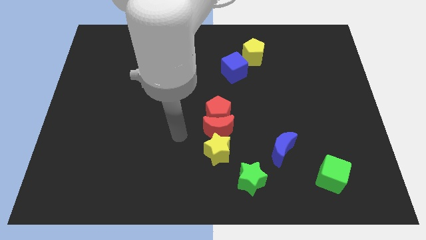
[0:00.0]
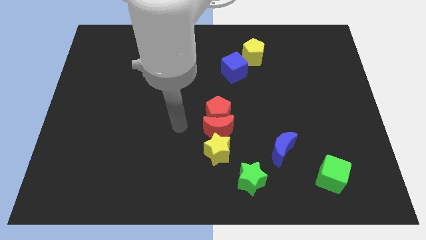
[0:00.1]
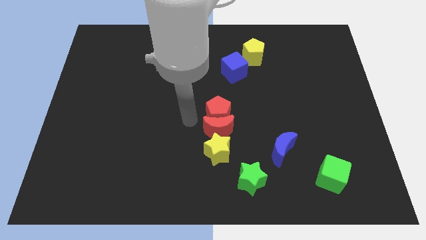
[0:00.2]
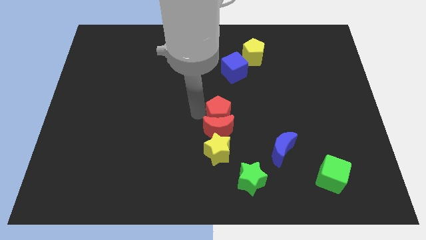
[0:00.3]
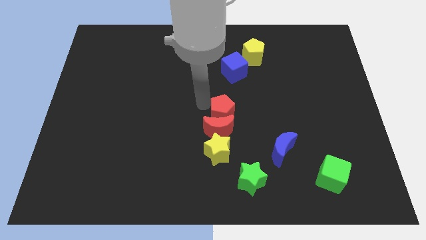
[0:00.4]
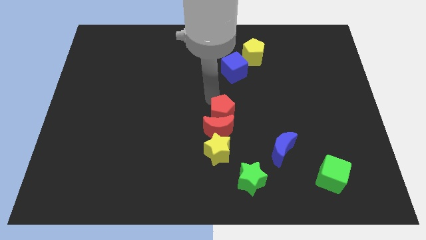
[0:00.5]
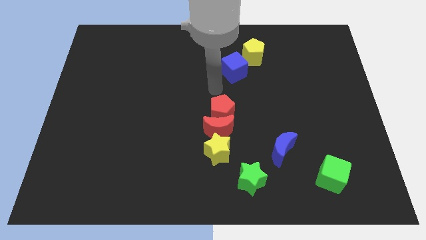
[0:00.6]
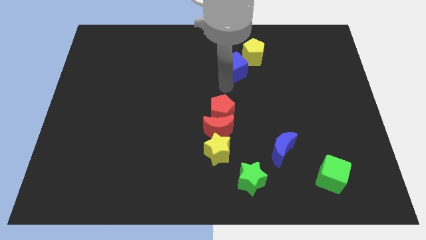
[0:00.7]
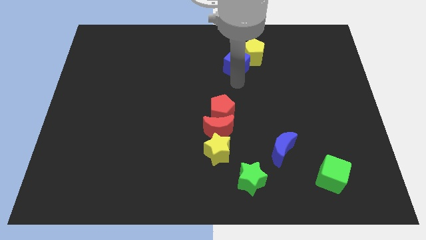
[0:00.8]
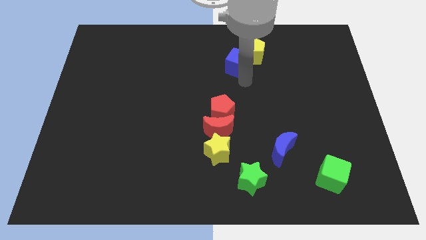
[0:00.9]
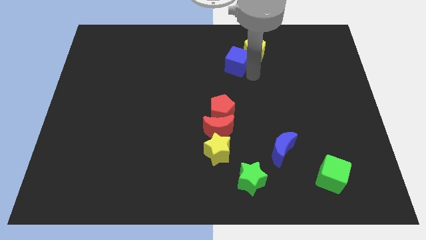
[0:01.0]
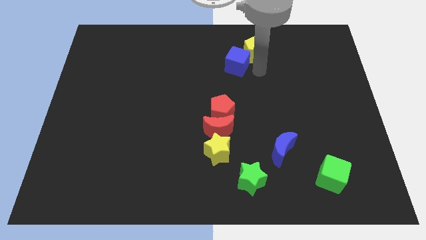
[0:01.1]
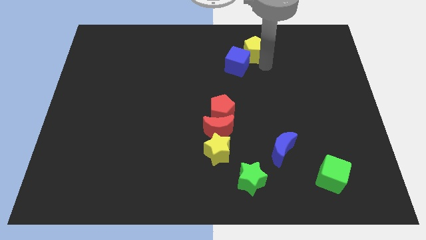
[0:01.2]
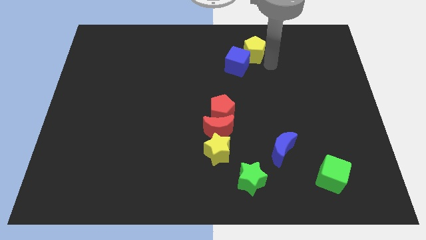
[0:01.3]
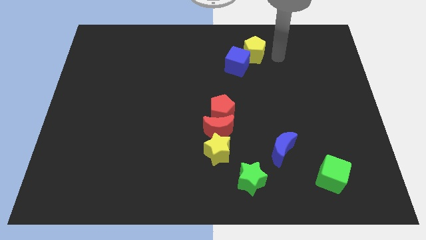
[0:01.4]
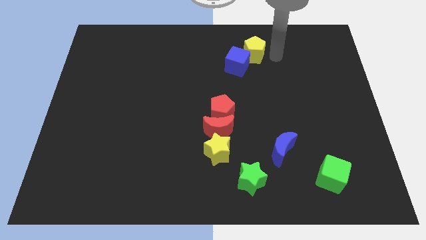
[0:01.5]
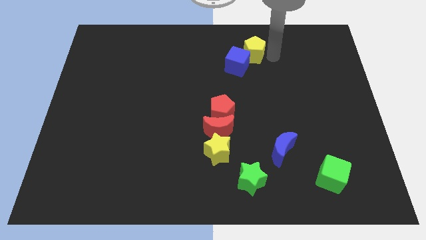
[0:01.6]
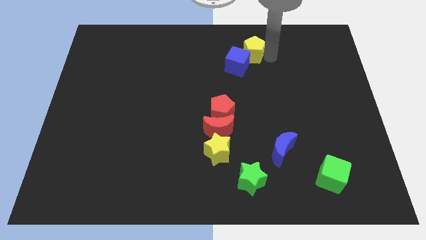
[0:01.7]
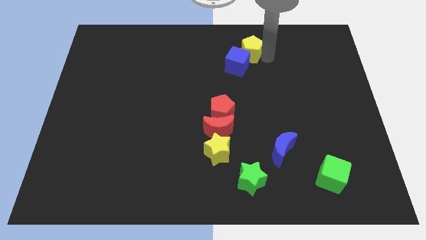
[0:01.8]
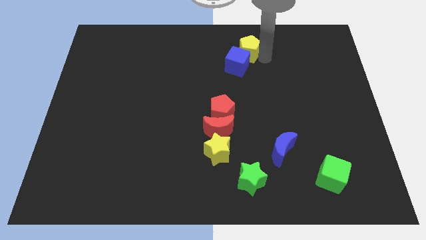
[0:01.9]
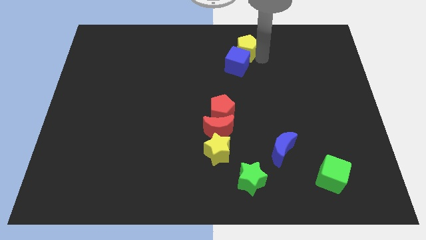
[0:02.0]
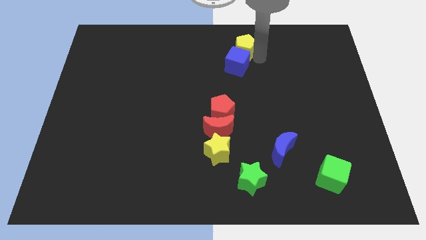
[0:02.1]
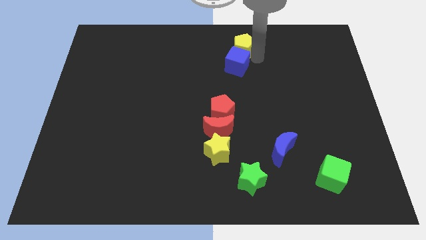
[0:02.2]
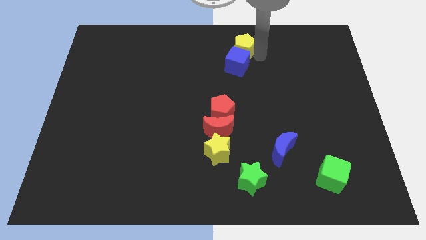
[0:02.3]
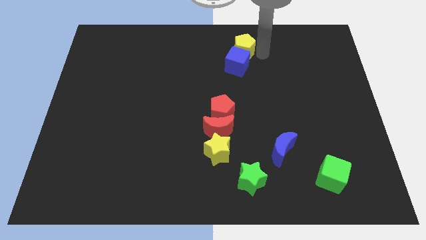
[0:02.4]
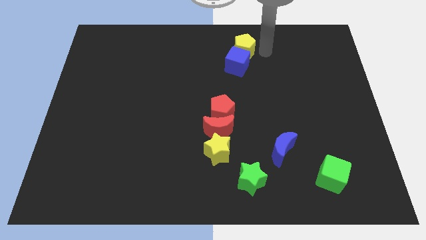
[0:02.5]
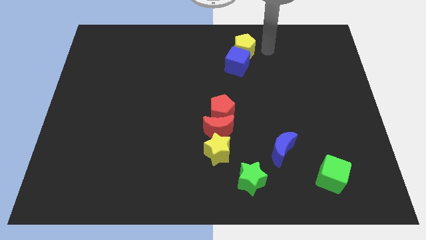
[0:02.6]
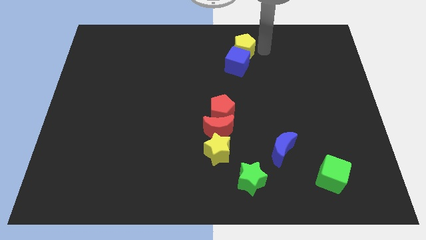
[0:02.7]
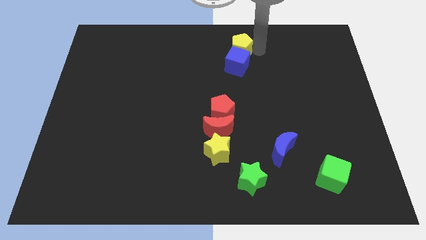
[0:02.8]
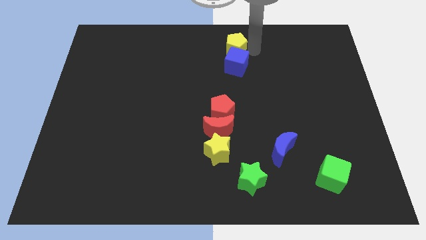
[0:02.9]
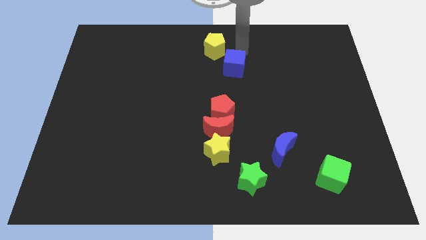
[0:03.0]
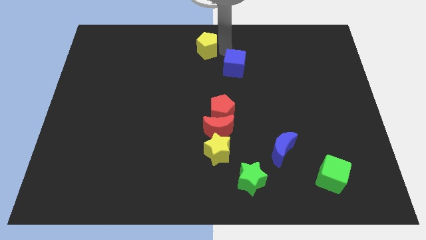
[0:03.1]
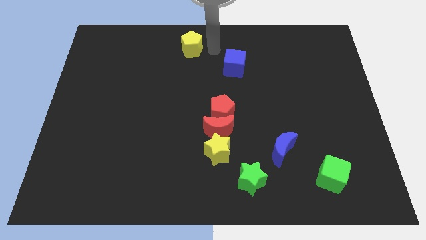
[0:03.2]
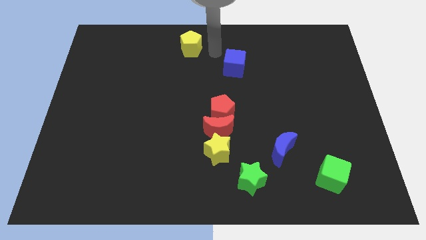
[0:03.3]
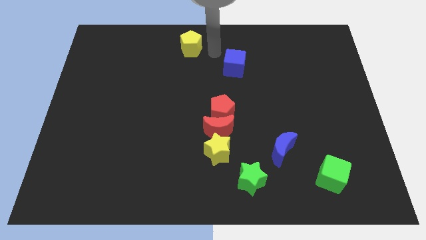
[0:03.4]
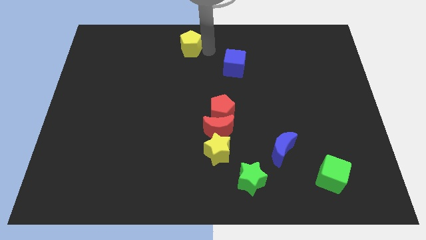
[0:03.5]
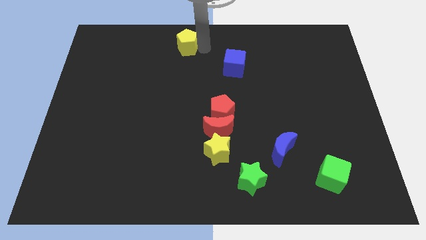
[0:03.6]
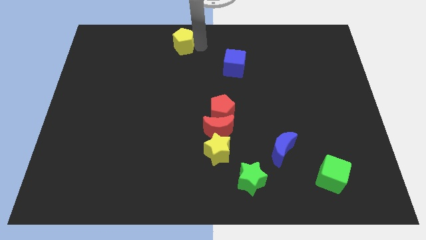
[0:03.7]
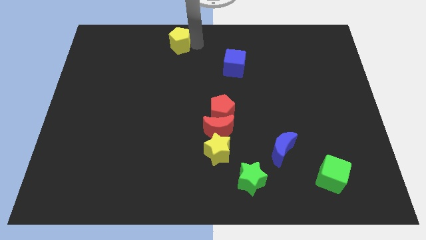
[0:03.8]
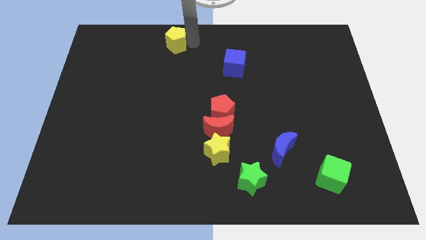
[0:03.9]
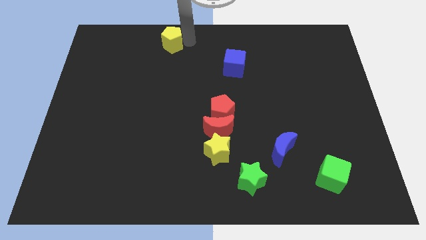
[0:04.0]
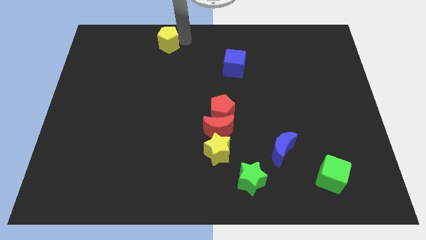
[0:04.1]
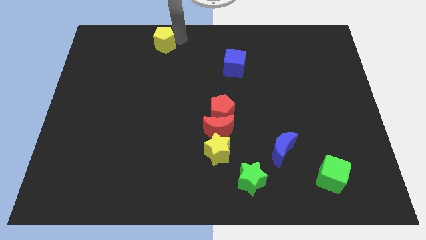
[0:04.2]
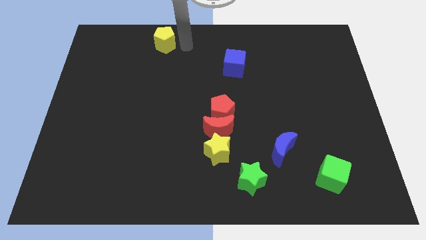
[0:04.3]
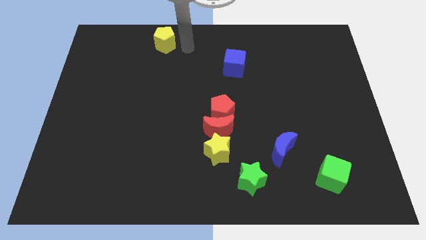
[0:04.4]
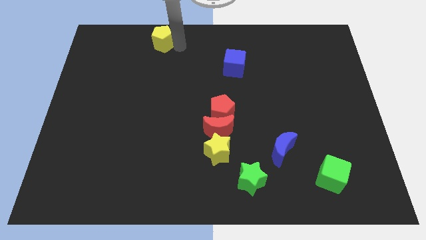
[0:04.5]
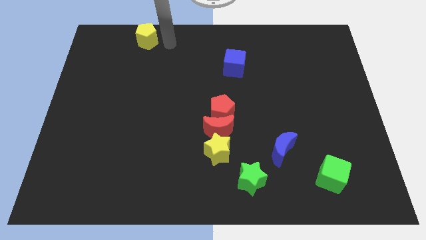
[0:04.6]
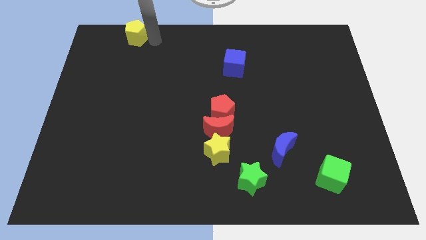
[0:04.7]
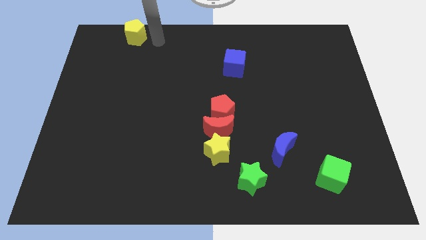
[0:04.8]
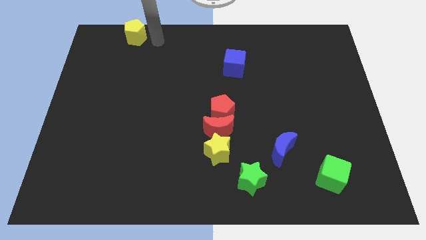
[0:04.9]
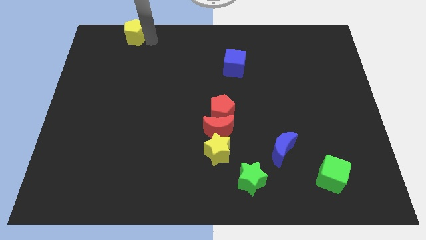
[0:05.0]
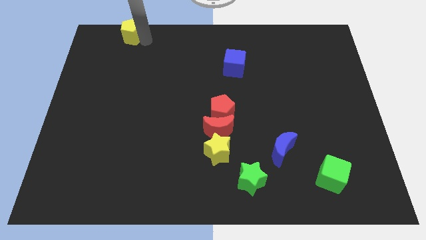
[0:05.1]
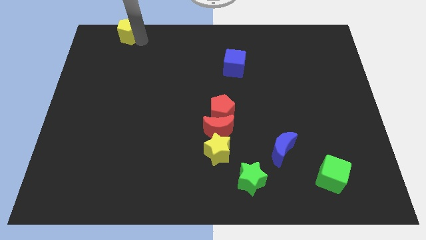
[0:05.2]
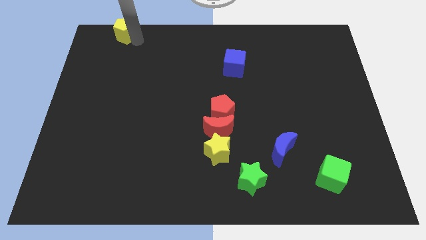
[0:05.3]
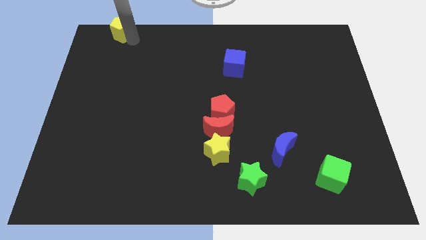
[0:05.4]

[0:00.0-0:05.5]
slide the yellow pentagon to the upper left corner
